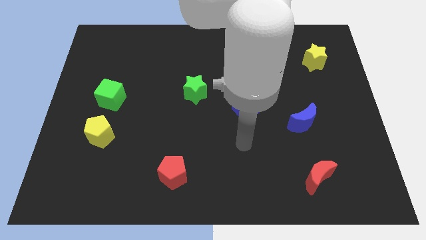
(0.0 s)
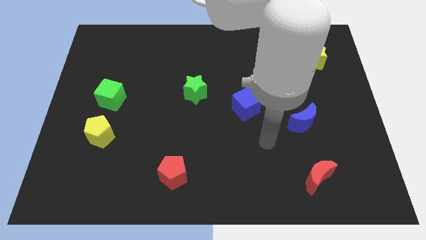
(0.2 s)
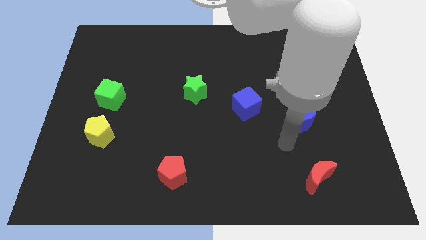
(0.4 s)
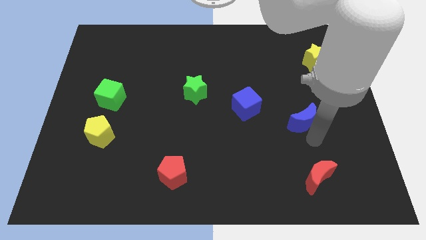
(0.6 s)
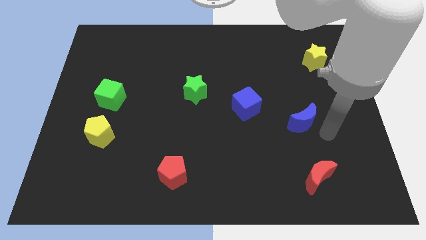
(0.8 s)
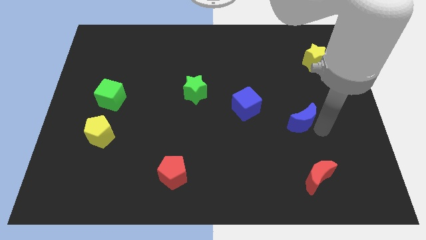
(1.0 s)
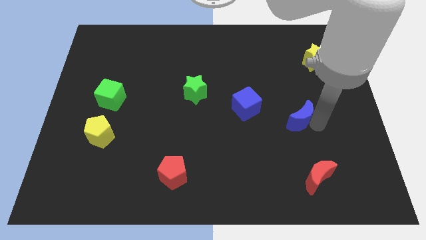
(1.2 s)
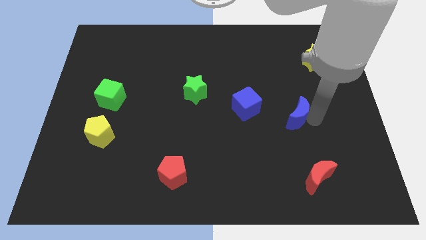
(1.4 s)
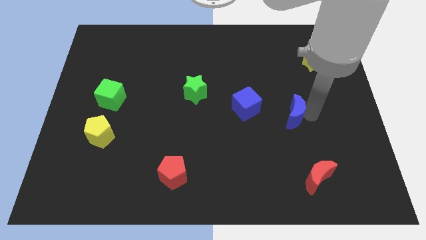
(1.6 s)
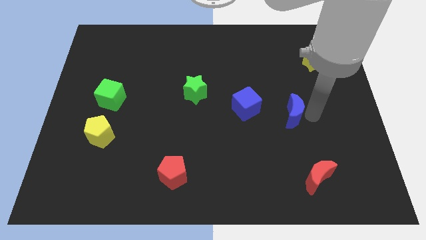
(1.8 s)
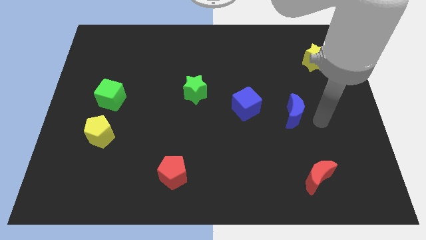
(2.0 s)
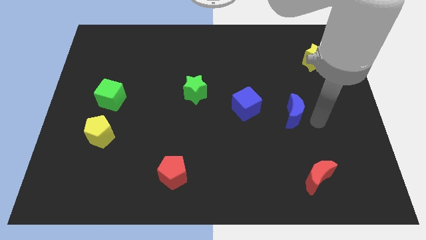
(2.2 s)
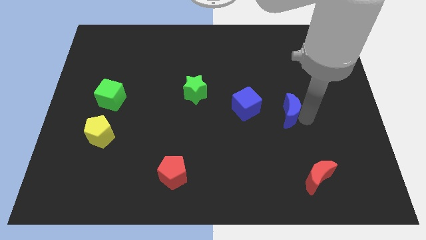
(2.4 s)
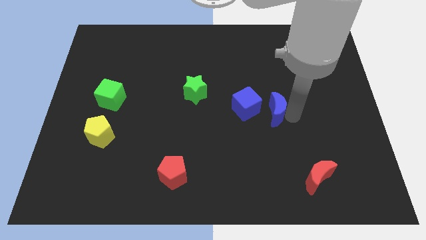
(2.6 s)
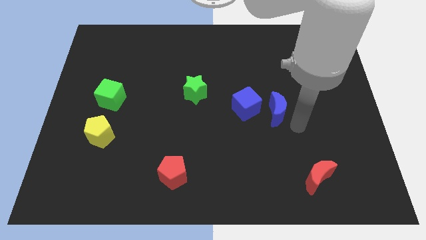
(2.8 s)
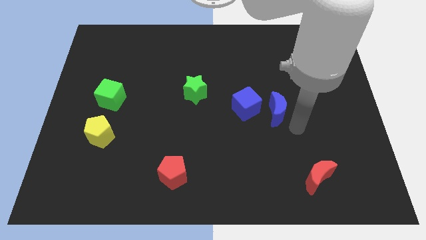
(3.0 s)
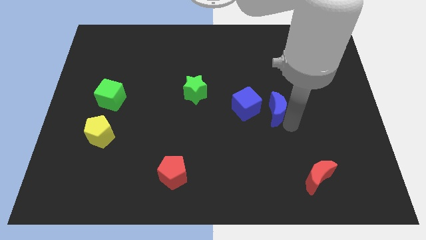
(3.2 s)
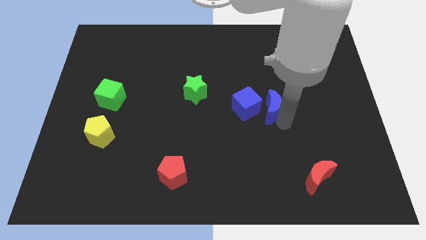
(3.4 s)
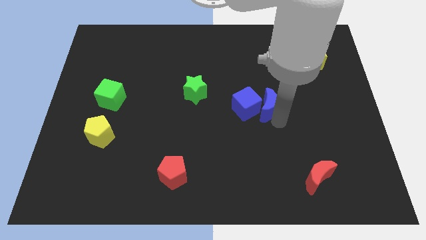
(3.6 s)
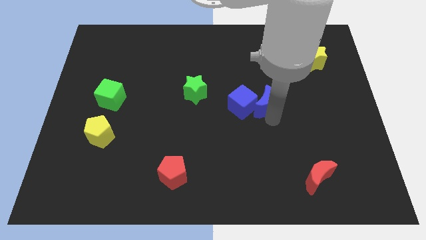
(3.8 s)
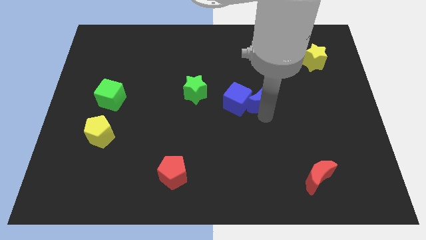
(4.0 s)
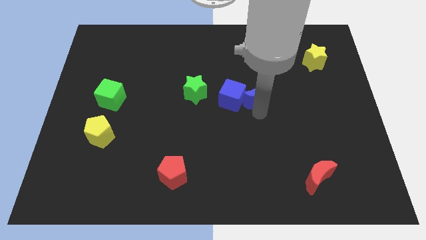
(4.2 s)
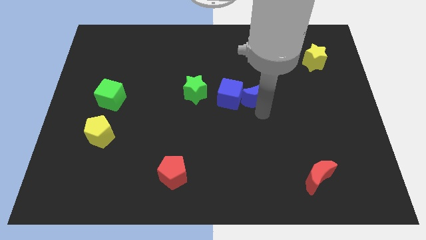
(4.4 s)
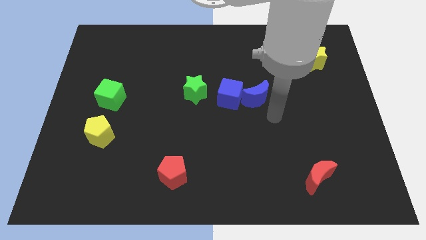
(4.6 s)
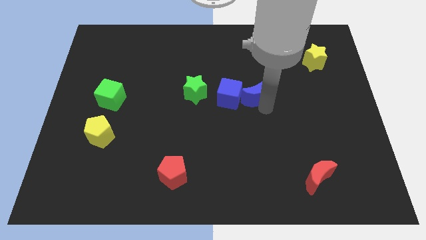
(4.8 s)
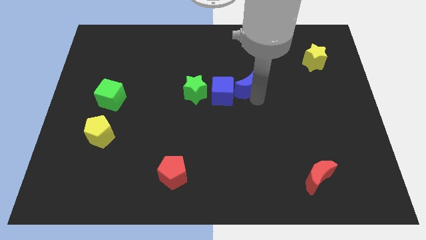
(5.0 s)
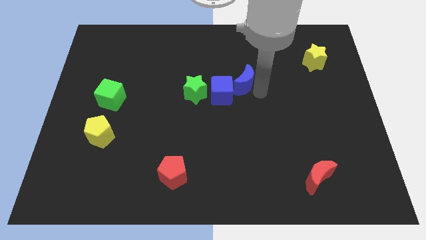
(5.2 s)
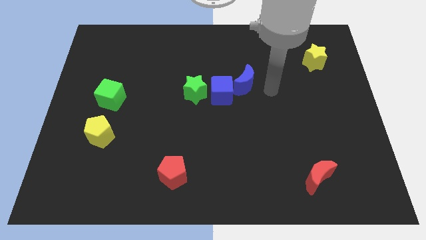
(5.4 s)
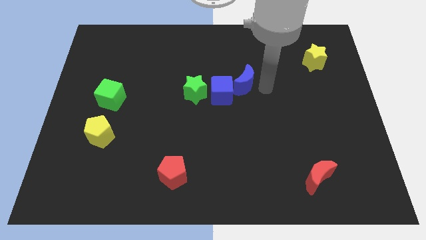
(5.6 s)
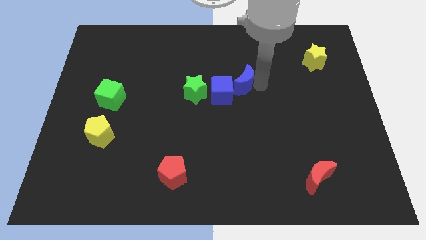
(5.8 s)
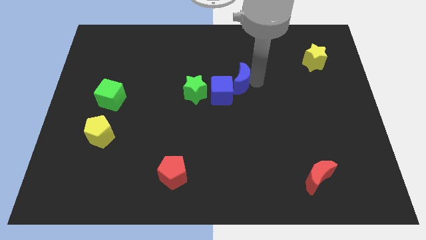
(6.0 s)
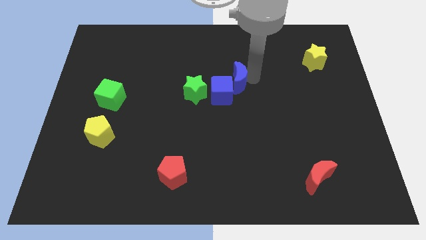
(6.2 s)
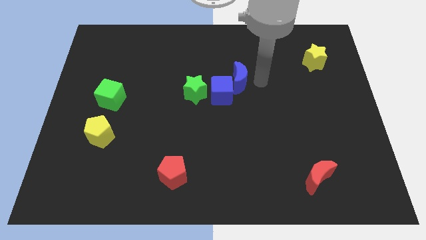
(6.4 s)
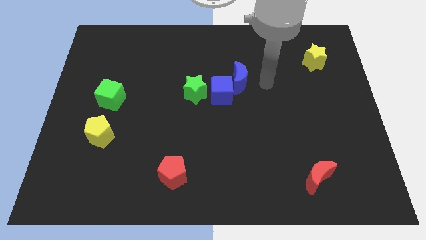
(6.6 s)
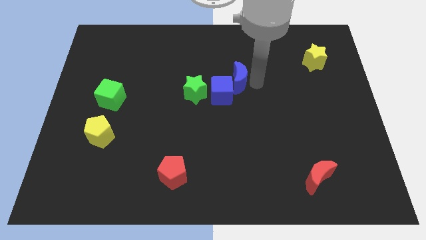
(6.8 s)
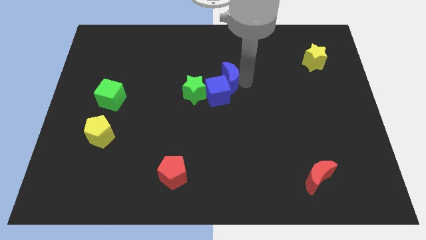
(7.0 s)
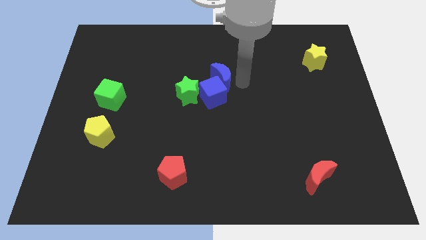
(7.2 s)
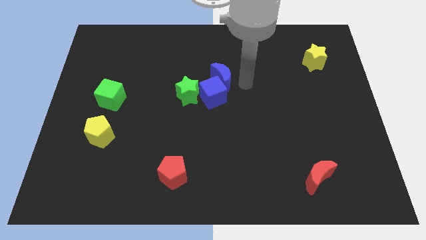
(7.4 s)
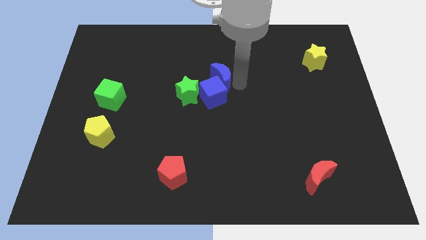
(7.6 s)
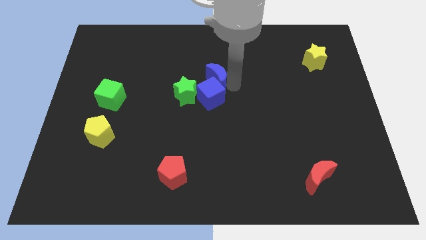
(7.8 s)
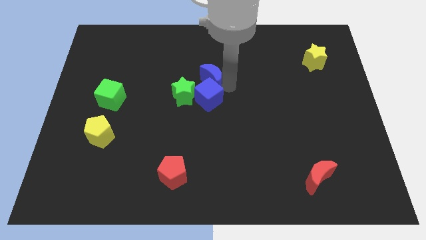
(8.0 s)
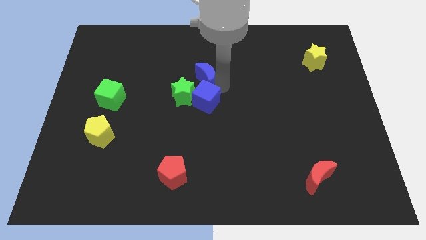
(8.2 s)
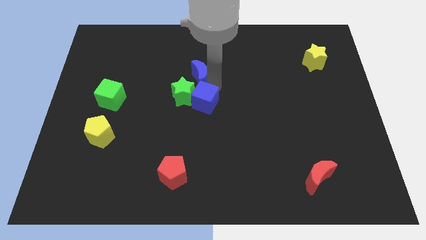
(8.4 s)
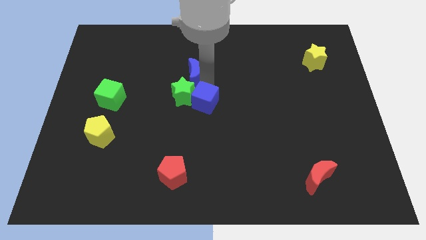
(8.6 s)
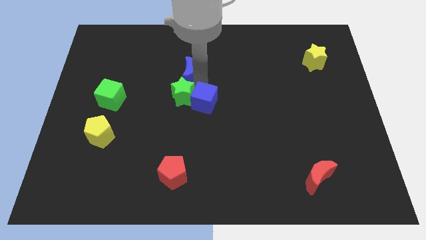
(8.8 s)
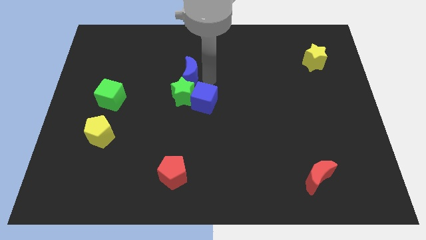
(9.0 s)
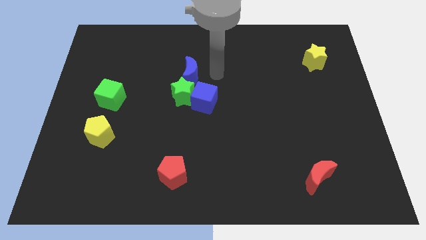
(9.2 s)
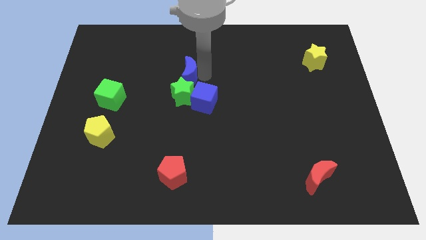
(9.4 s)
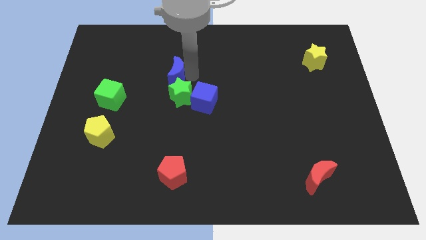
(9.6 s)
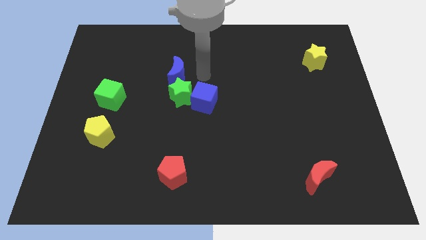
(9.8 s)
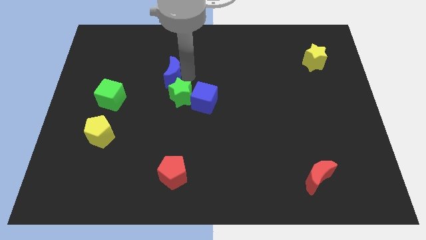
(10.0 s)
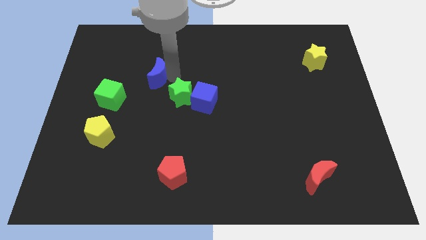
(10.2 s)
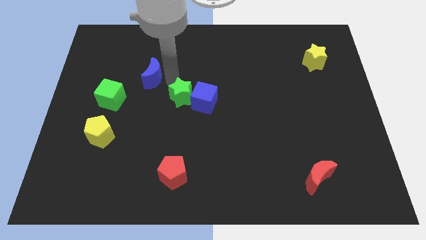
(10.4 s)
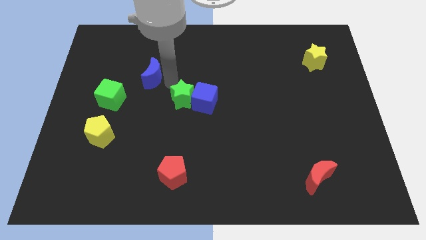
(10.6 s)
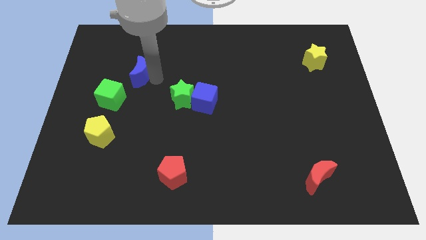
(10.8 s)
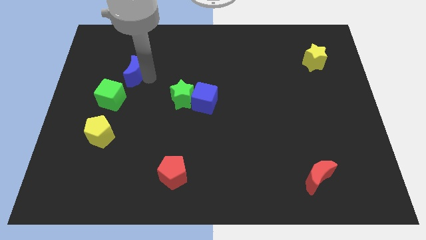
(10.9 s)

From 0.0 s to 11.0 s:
push the blue moon above the green cube

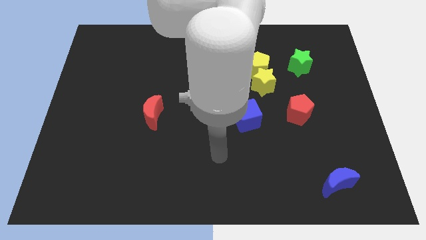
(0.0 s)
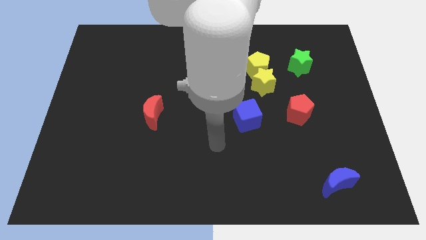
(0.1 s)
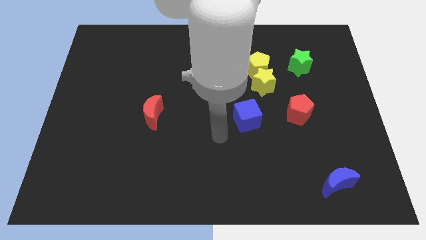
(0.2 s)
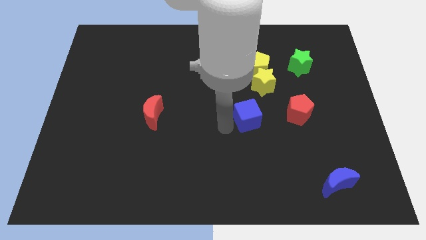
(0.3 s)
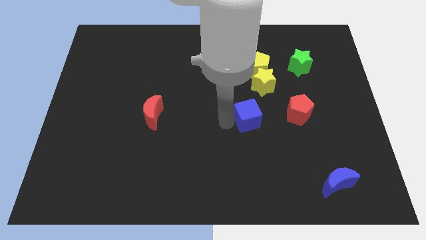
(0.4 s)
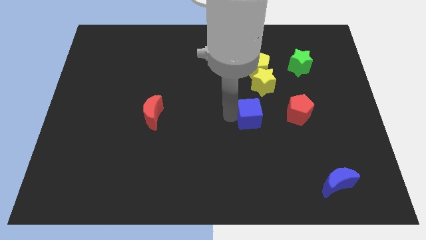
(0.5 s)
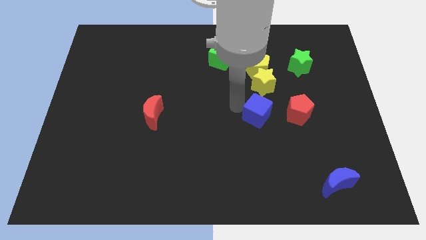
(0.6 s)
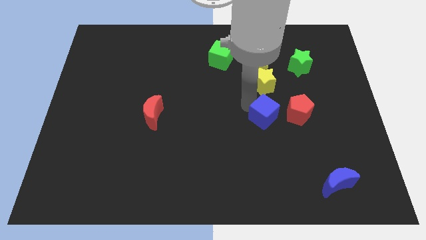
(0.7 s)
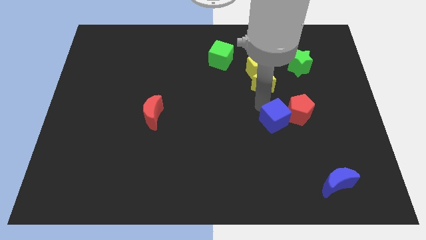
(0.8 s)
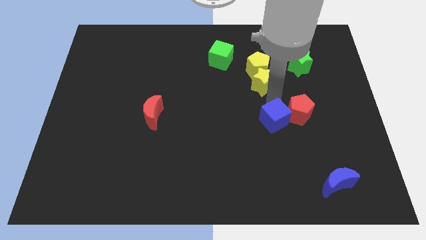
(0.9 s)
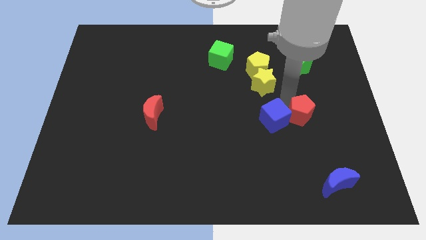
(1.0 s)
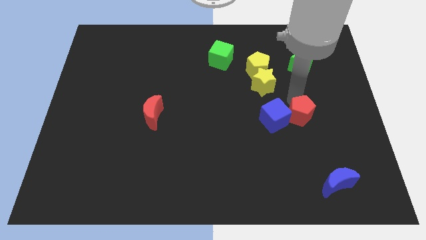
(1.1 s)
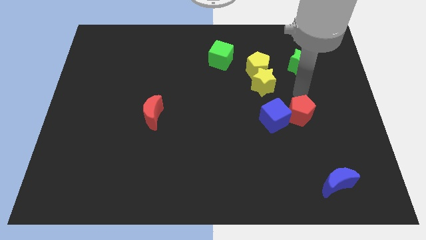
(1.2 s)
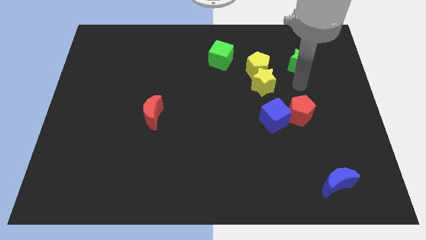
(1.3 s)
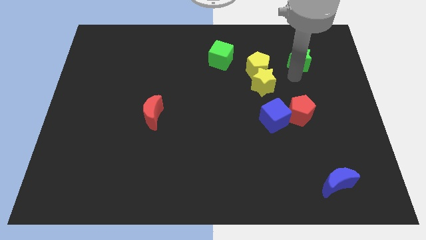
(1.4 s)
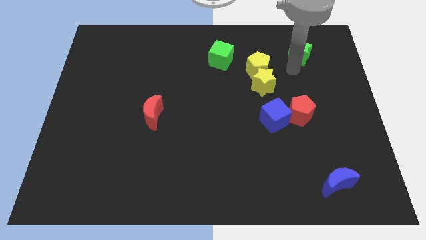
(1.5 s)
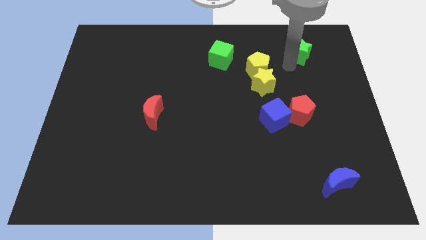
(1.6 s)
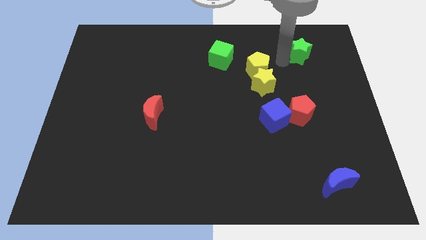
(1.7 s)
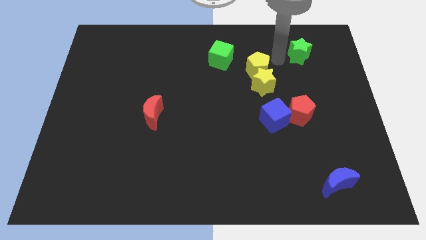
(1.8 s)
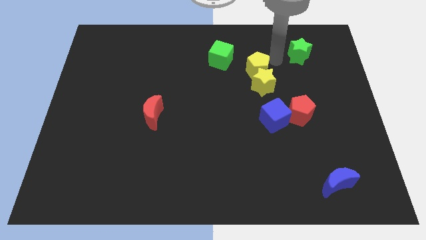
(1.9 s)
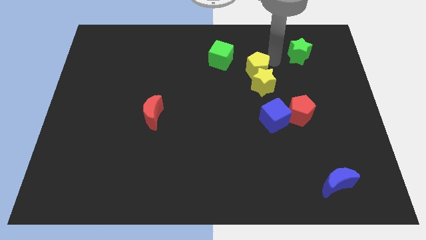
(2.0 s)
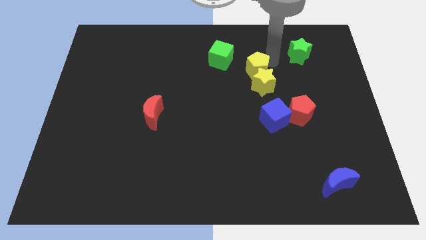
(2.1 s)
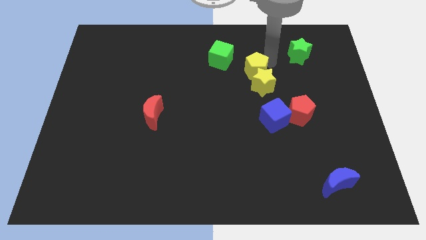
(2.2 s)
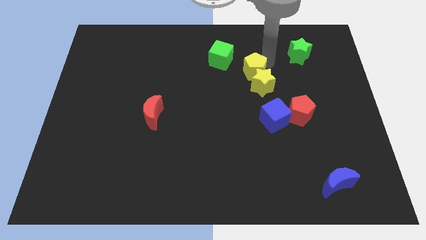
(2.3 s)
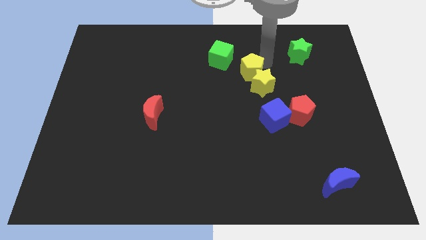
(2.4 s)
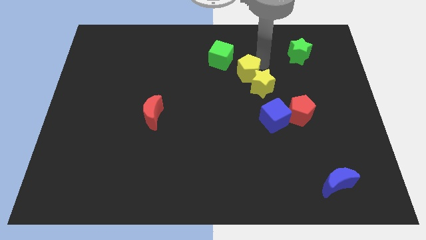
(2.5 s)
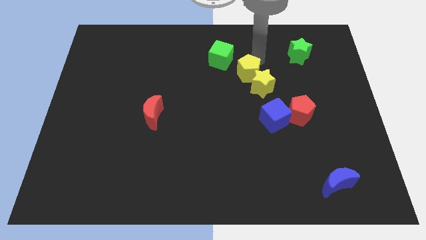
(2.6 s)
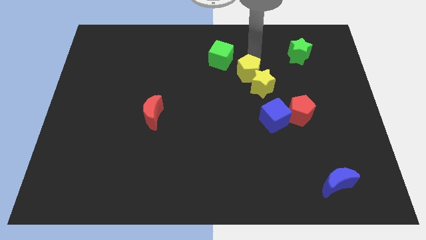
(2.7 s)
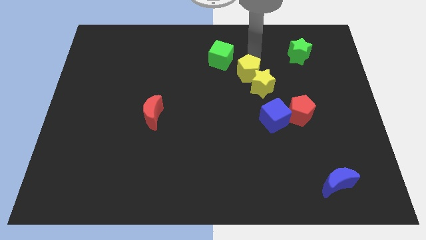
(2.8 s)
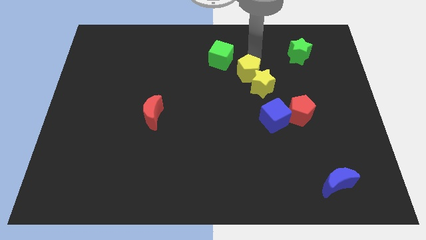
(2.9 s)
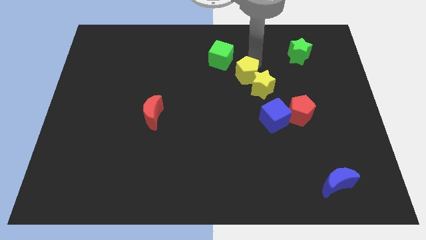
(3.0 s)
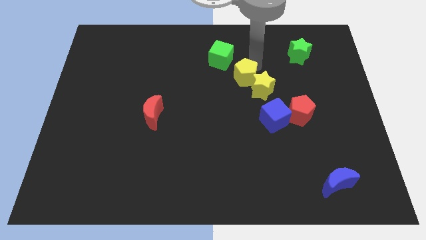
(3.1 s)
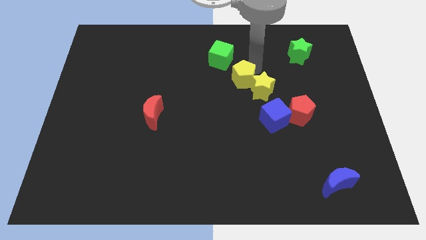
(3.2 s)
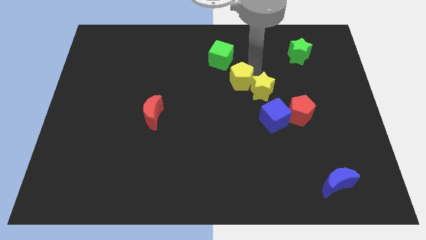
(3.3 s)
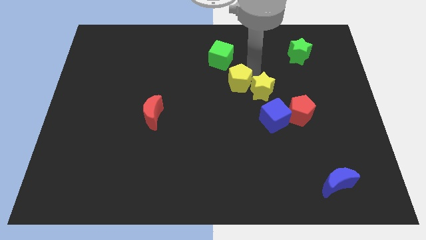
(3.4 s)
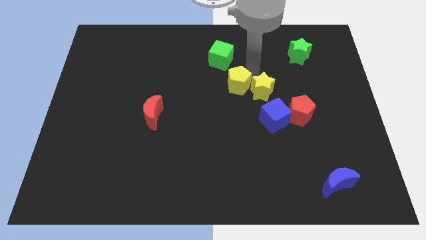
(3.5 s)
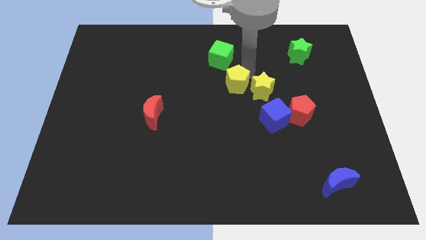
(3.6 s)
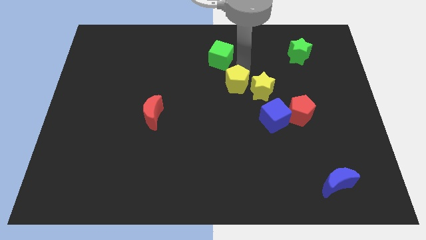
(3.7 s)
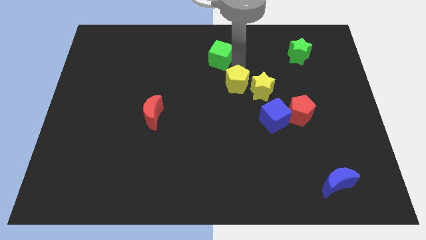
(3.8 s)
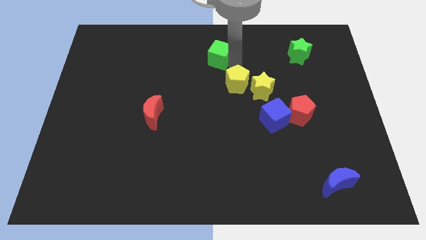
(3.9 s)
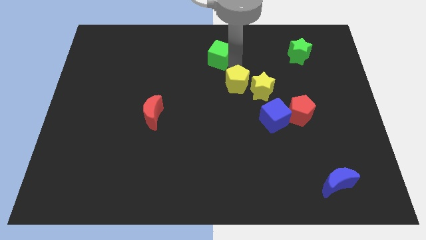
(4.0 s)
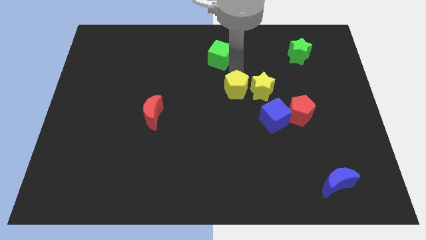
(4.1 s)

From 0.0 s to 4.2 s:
move the yellow pentagon to the bottom left of the yellow star
